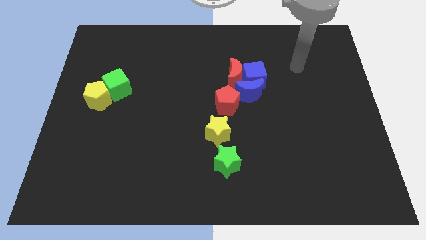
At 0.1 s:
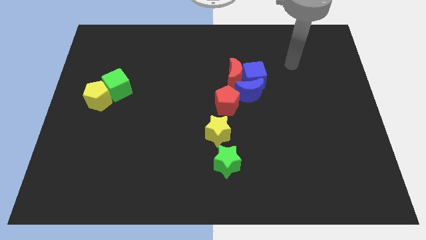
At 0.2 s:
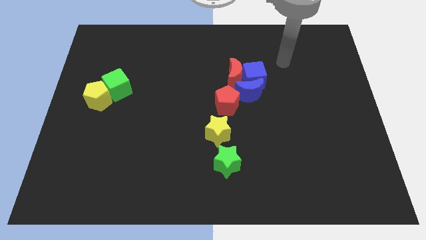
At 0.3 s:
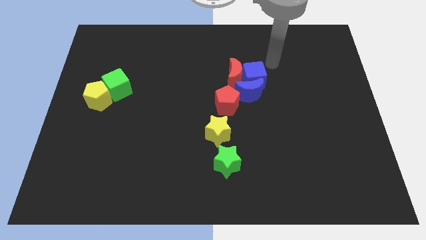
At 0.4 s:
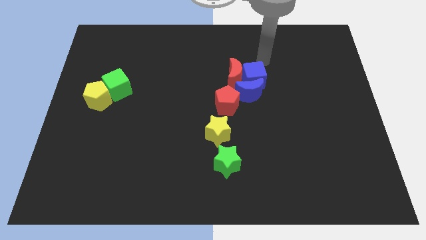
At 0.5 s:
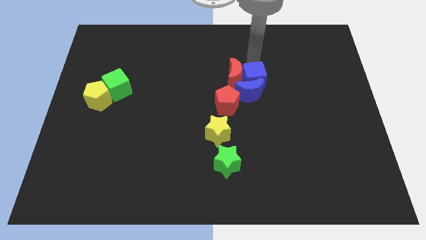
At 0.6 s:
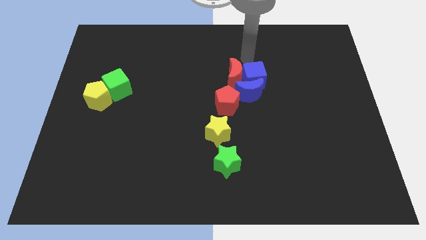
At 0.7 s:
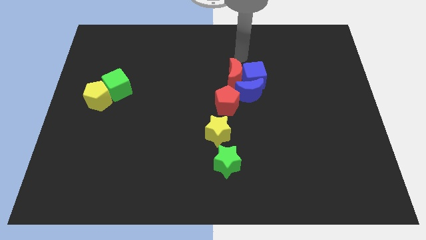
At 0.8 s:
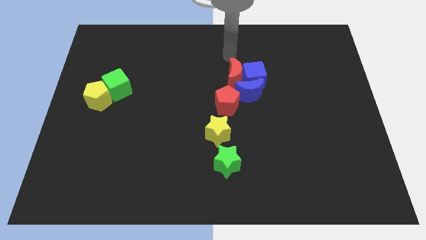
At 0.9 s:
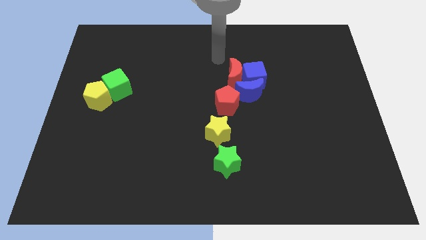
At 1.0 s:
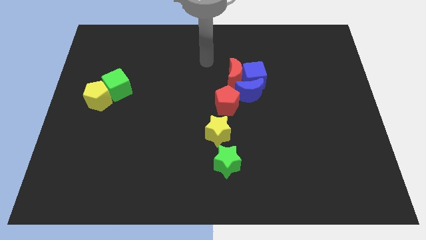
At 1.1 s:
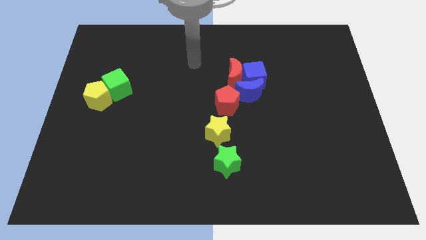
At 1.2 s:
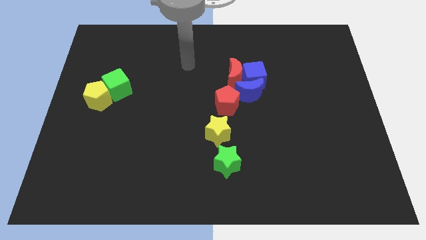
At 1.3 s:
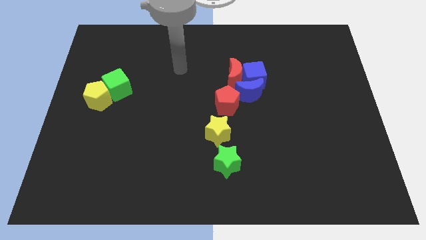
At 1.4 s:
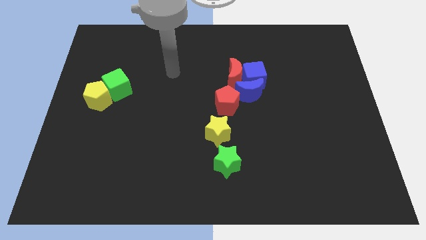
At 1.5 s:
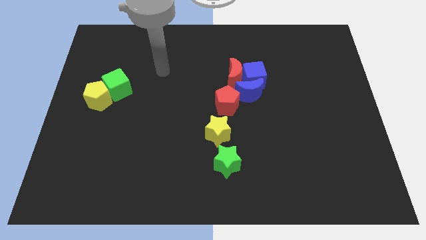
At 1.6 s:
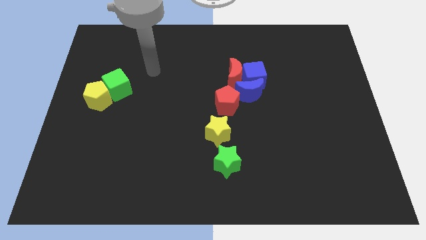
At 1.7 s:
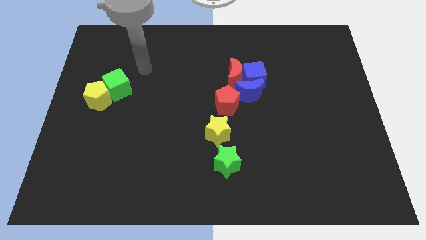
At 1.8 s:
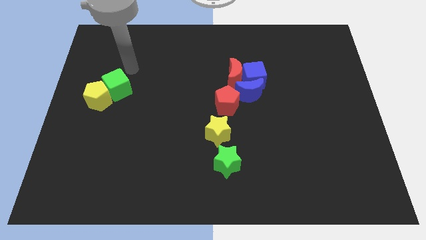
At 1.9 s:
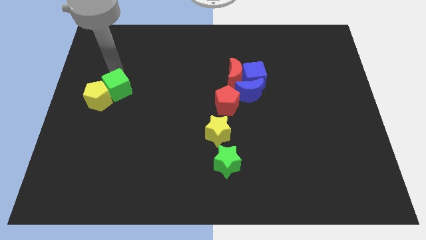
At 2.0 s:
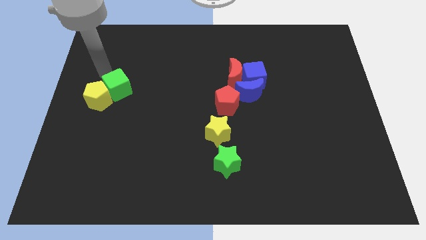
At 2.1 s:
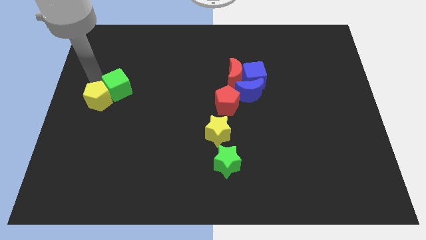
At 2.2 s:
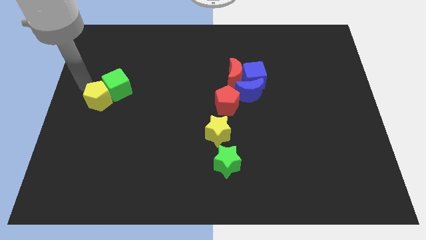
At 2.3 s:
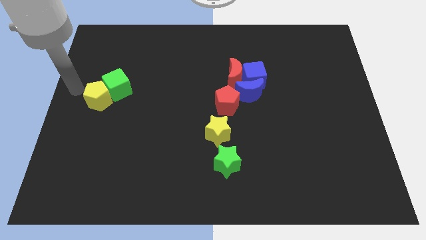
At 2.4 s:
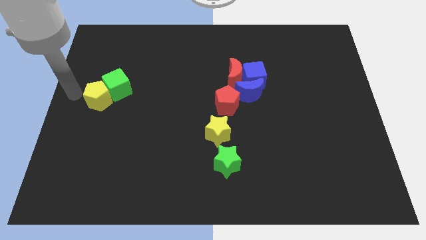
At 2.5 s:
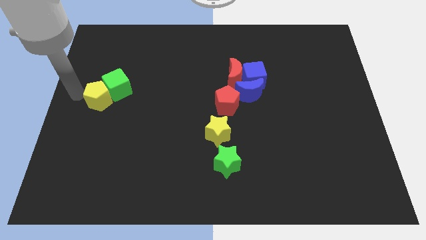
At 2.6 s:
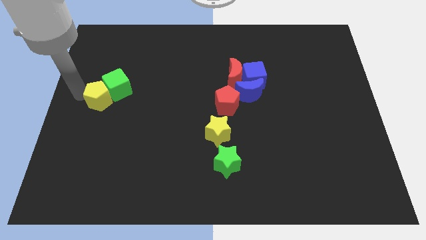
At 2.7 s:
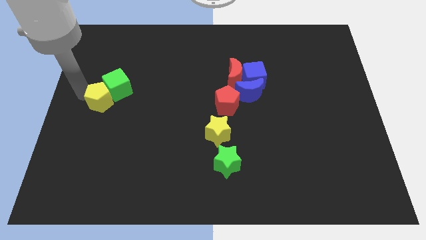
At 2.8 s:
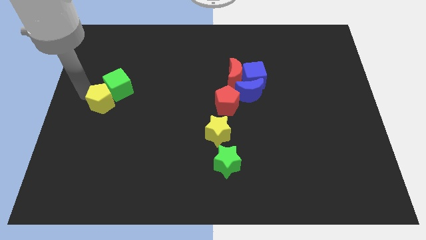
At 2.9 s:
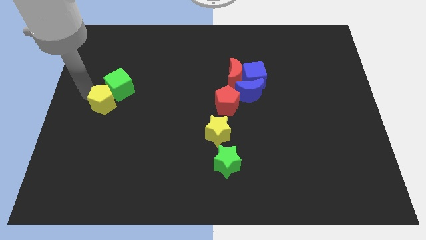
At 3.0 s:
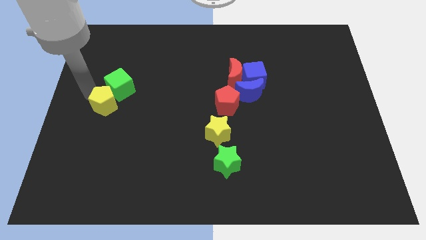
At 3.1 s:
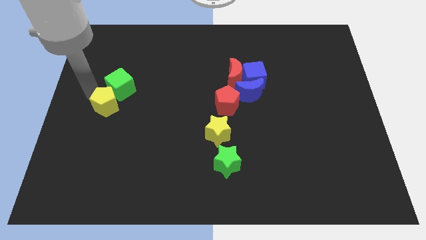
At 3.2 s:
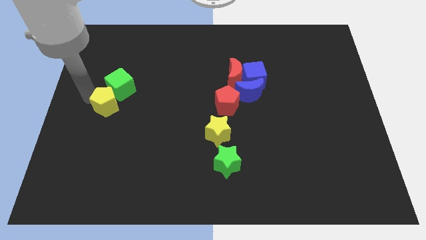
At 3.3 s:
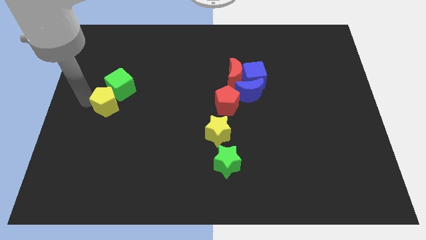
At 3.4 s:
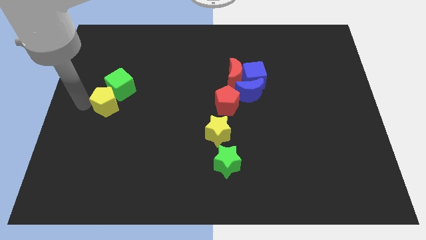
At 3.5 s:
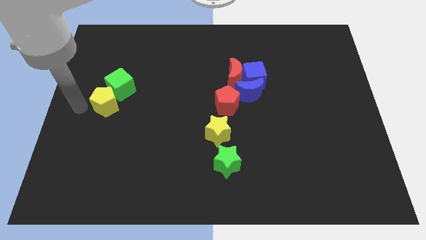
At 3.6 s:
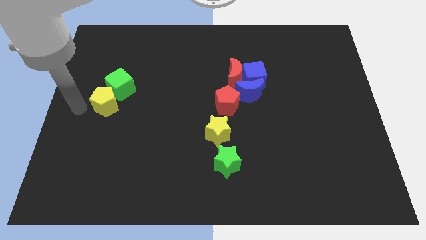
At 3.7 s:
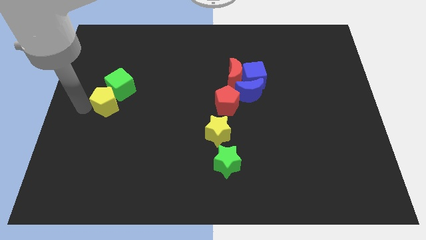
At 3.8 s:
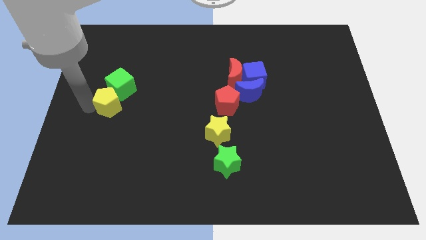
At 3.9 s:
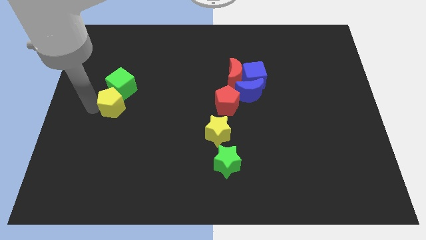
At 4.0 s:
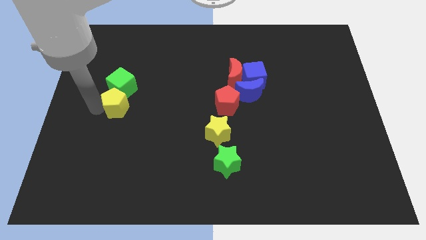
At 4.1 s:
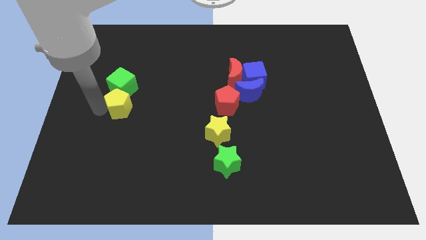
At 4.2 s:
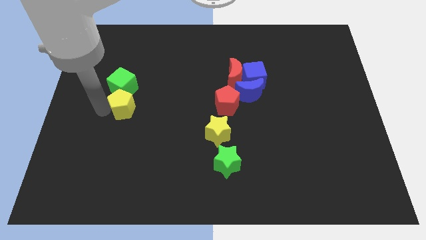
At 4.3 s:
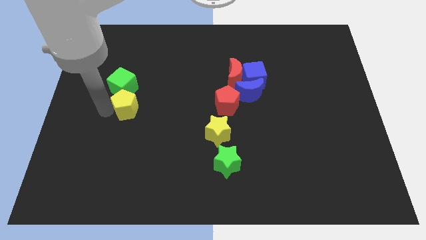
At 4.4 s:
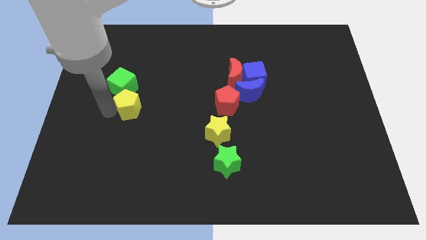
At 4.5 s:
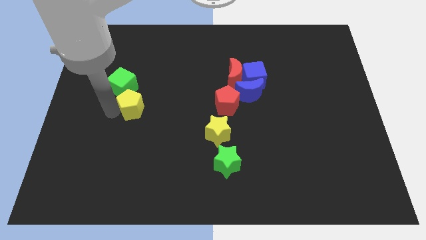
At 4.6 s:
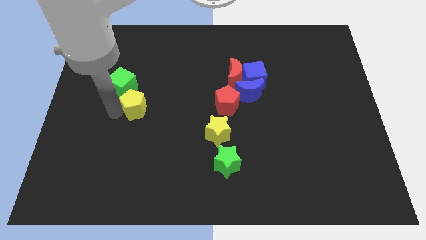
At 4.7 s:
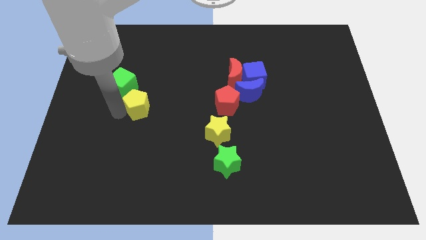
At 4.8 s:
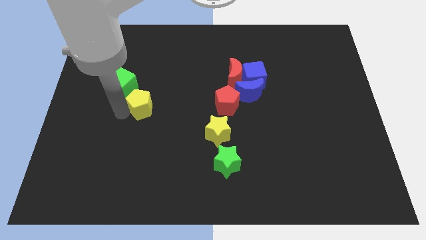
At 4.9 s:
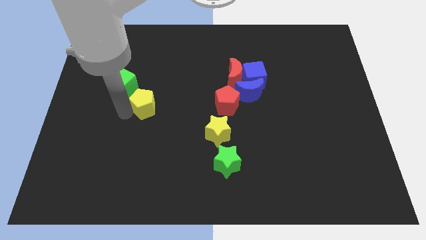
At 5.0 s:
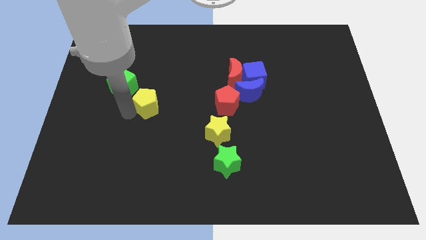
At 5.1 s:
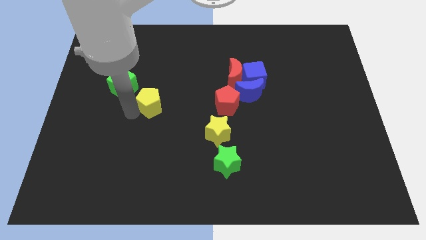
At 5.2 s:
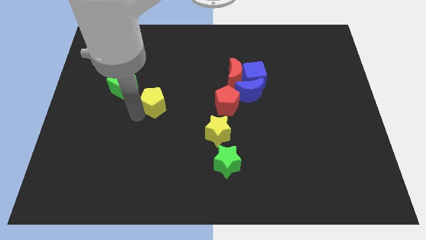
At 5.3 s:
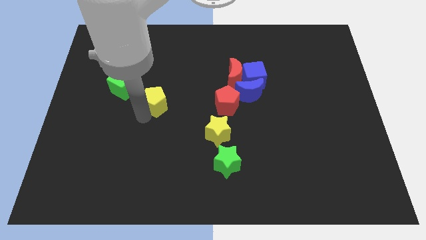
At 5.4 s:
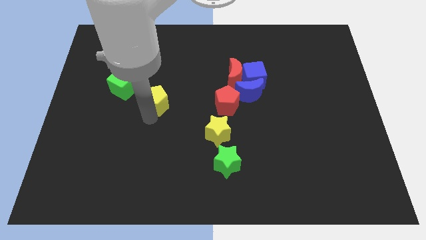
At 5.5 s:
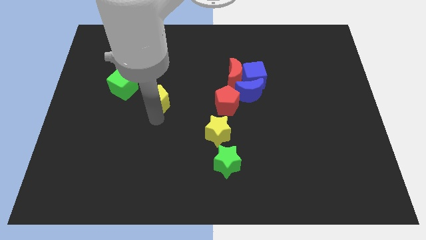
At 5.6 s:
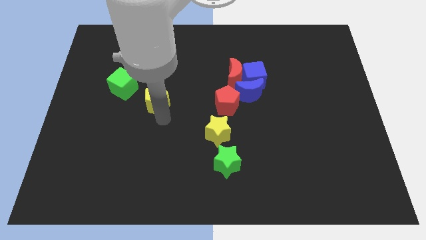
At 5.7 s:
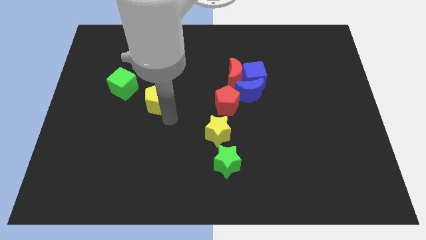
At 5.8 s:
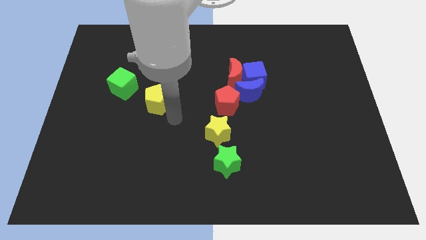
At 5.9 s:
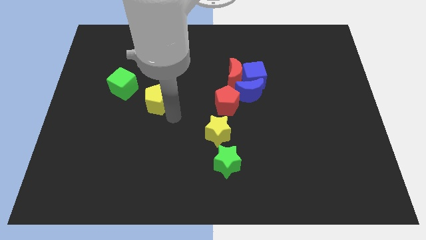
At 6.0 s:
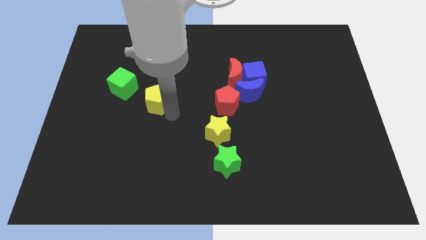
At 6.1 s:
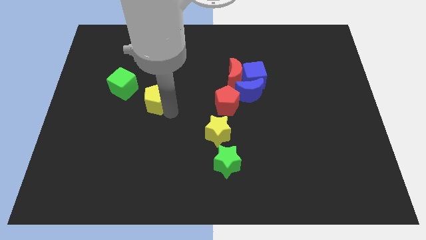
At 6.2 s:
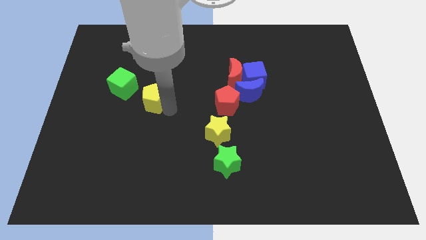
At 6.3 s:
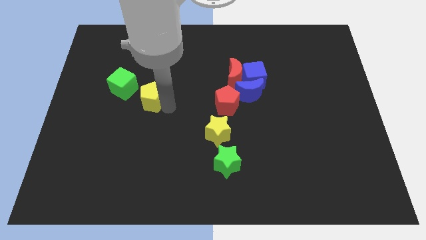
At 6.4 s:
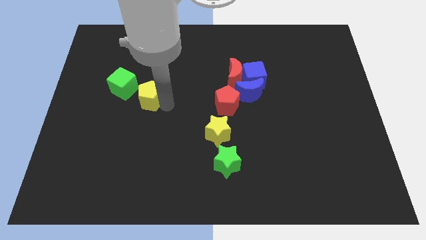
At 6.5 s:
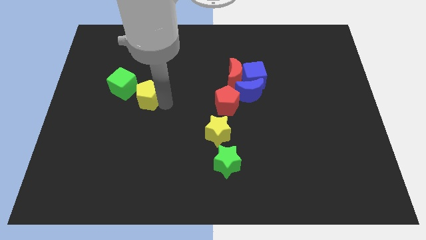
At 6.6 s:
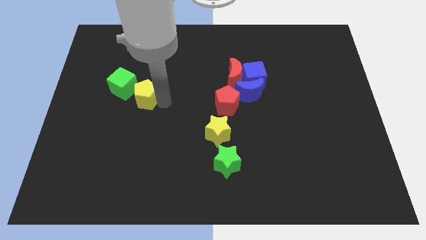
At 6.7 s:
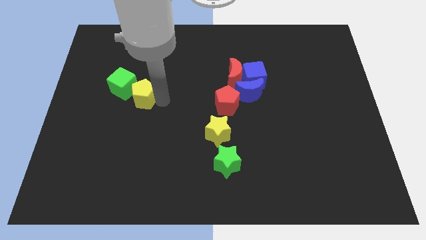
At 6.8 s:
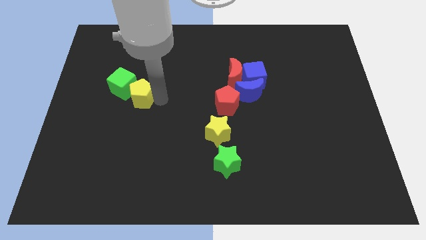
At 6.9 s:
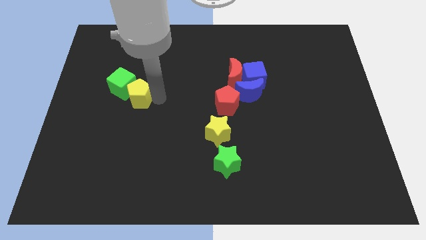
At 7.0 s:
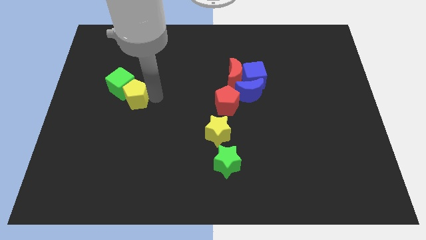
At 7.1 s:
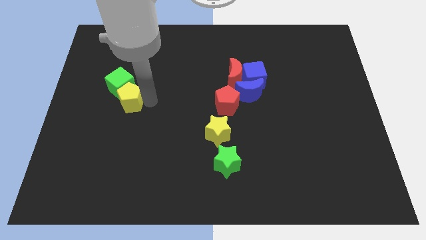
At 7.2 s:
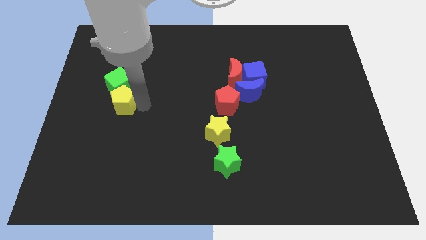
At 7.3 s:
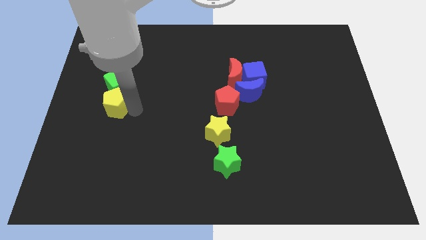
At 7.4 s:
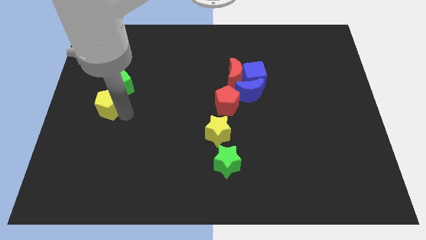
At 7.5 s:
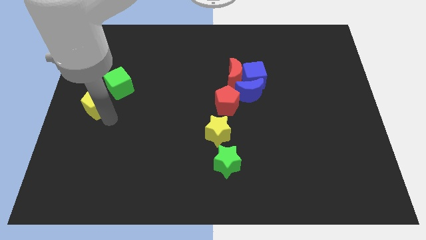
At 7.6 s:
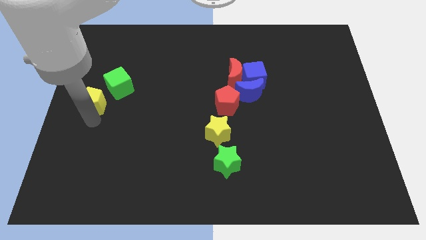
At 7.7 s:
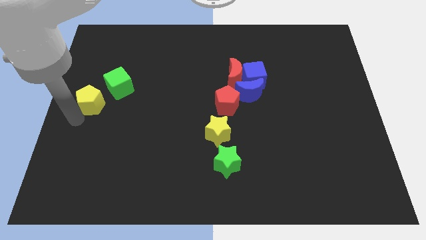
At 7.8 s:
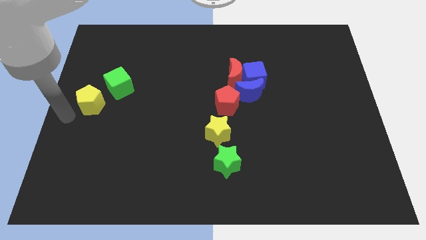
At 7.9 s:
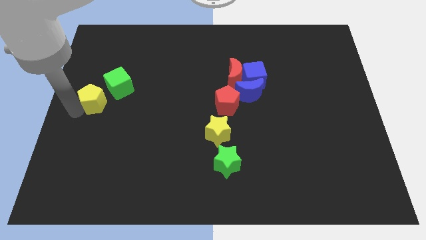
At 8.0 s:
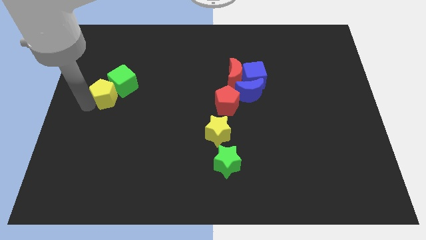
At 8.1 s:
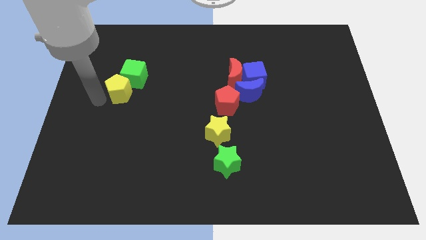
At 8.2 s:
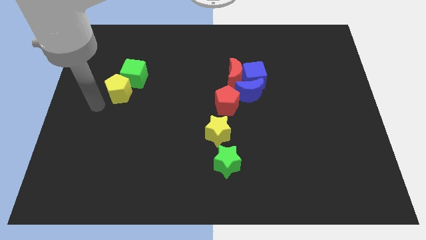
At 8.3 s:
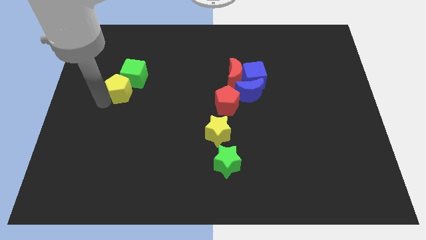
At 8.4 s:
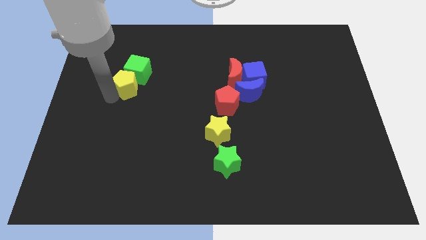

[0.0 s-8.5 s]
slightly slide the yellow pentagon up and to the right
